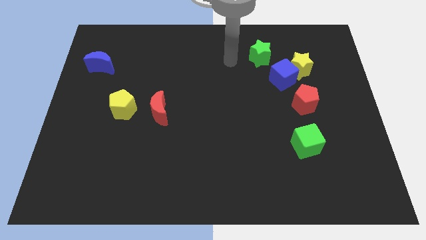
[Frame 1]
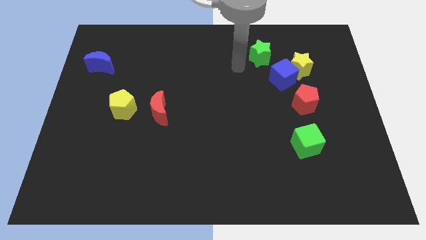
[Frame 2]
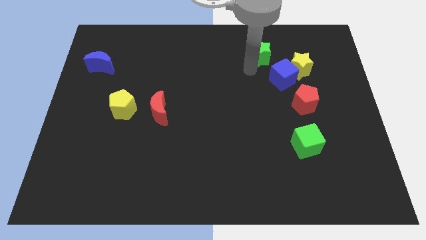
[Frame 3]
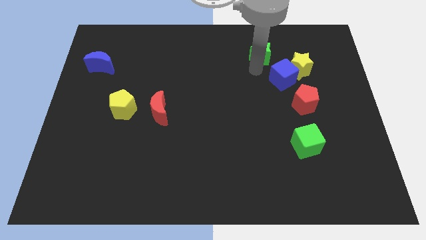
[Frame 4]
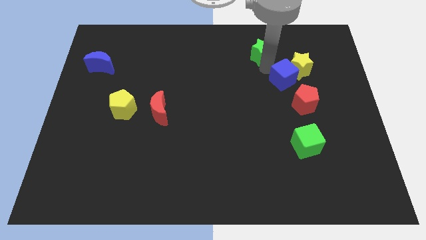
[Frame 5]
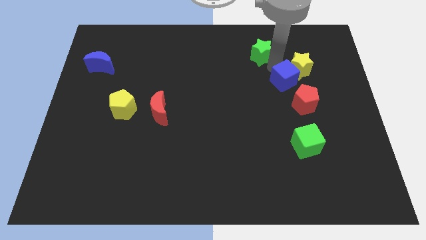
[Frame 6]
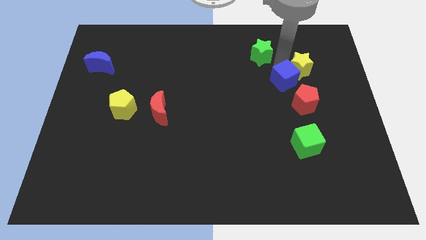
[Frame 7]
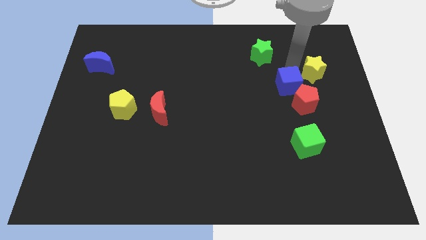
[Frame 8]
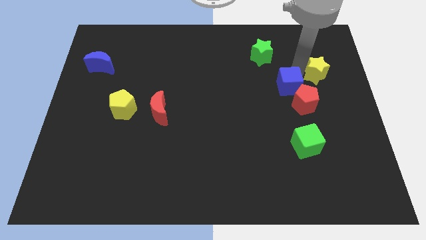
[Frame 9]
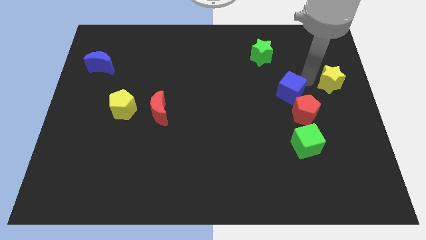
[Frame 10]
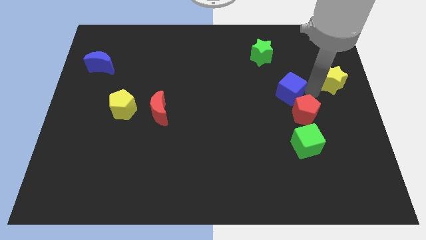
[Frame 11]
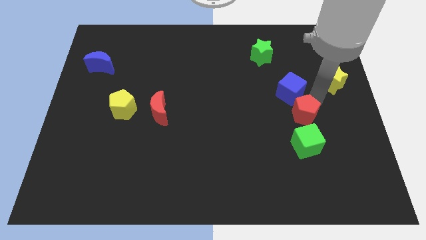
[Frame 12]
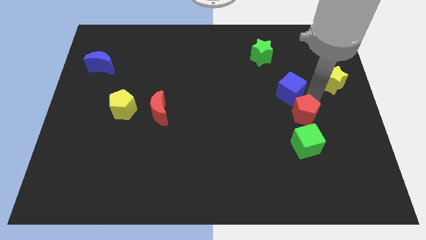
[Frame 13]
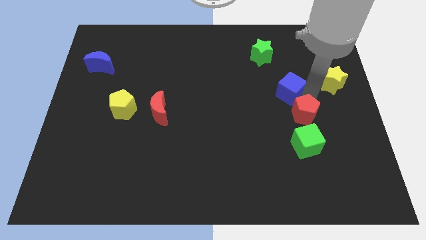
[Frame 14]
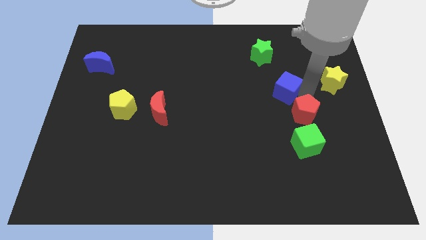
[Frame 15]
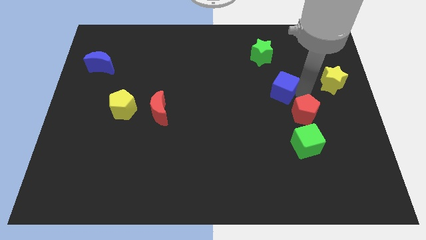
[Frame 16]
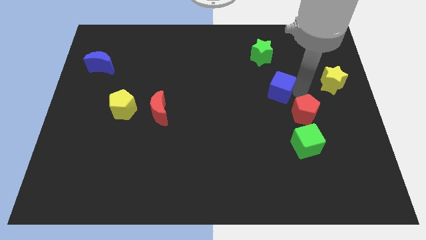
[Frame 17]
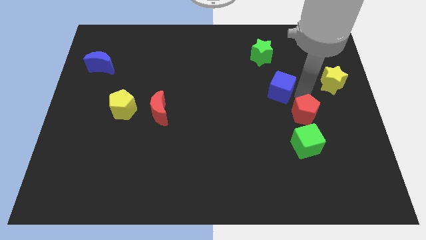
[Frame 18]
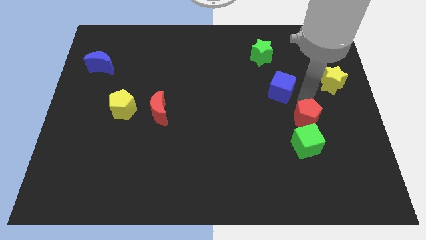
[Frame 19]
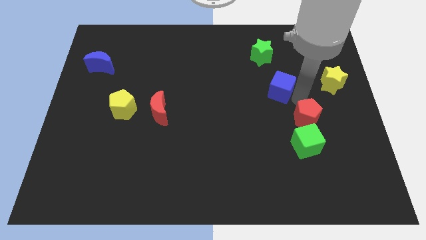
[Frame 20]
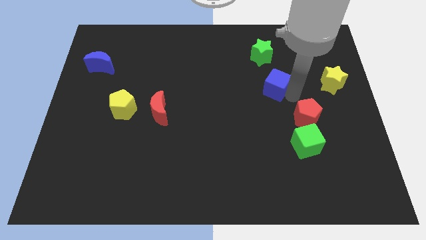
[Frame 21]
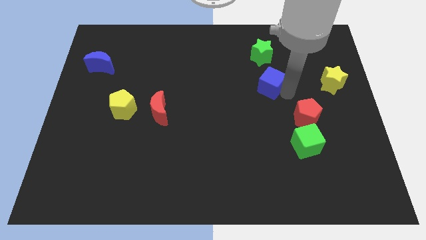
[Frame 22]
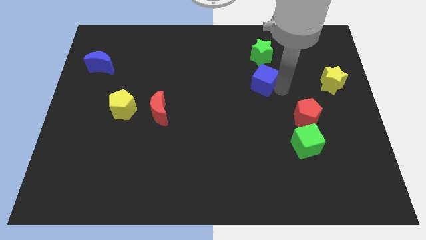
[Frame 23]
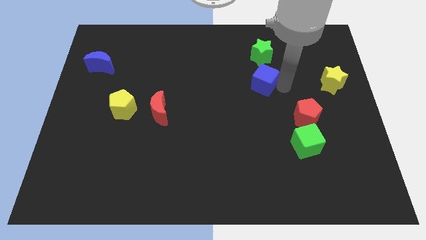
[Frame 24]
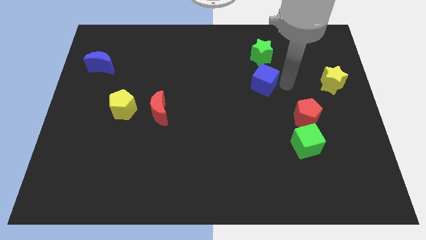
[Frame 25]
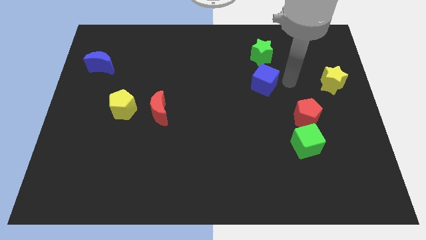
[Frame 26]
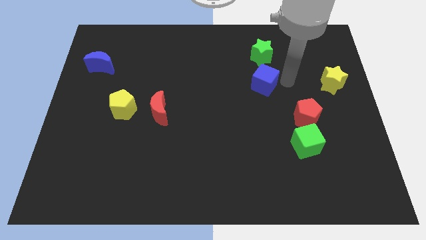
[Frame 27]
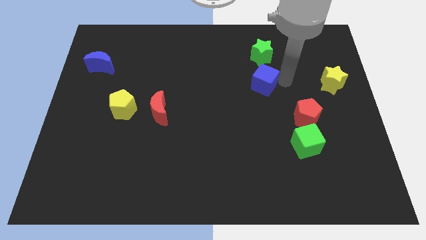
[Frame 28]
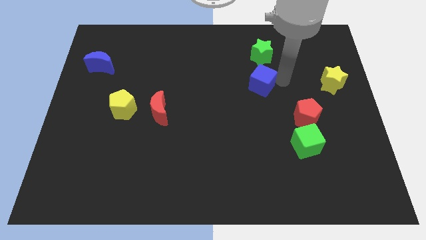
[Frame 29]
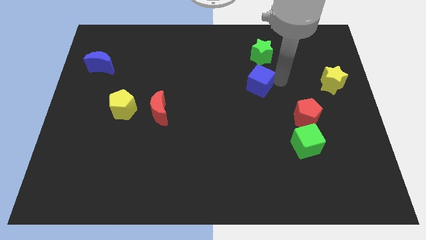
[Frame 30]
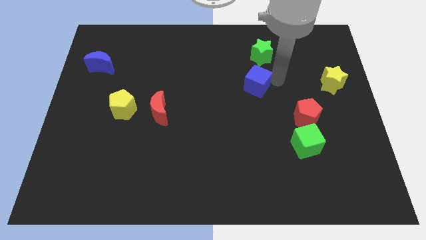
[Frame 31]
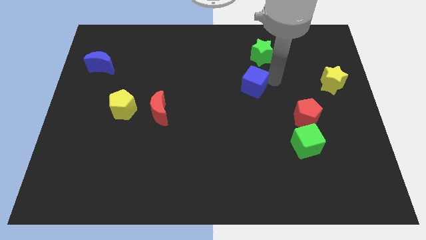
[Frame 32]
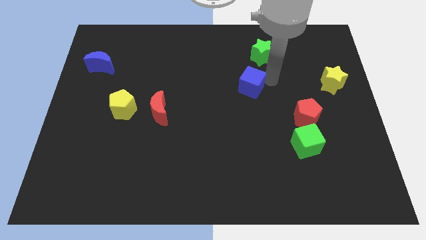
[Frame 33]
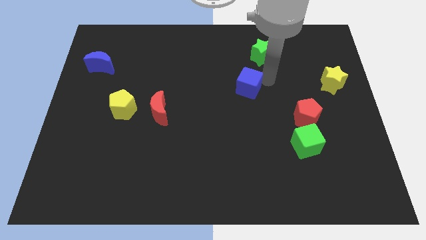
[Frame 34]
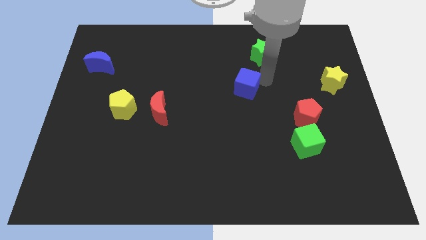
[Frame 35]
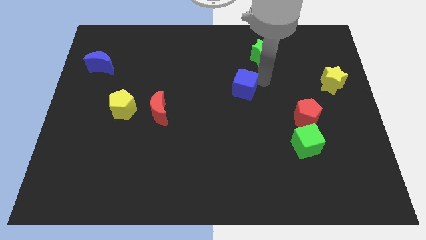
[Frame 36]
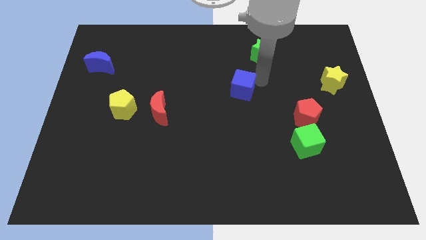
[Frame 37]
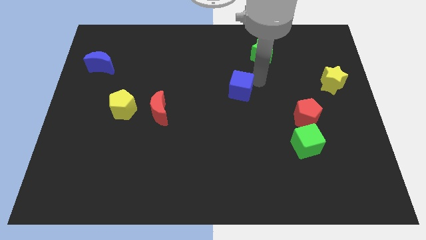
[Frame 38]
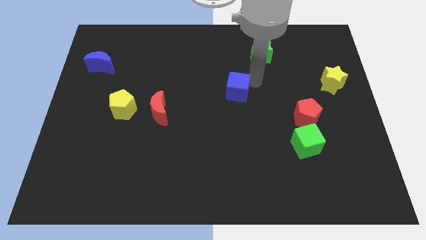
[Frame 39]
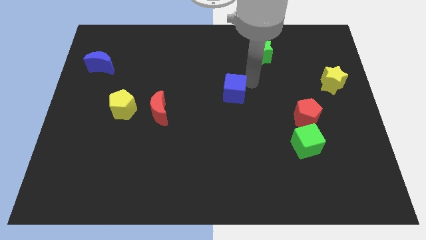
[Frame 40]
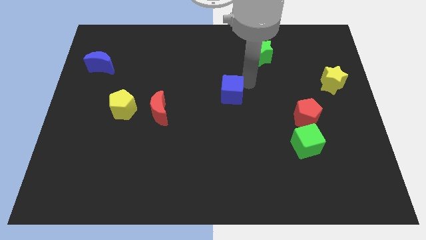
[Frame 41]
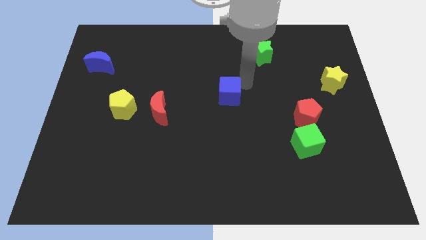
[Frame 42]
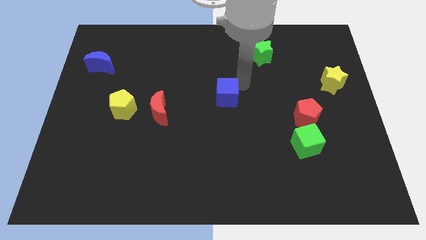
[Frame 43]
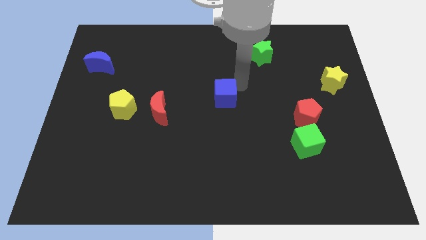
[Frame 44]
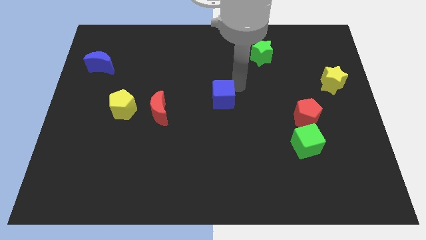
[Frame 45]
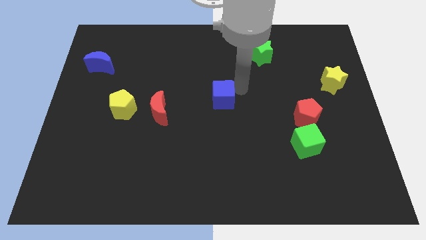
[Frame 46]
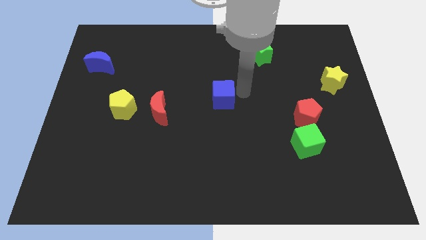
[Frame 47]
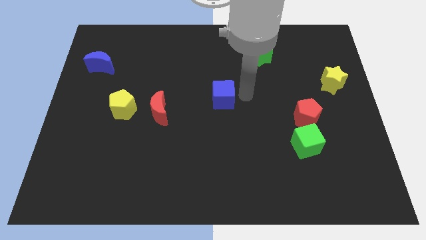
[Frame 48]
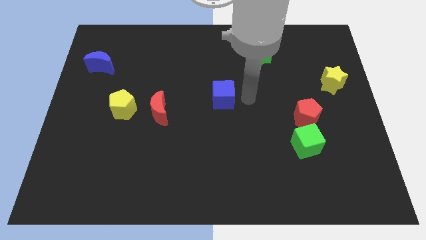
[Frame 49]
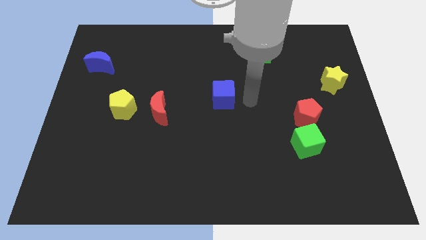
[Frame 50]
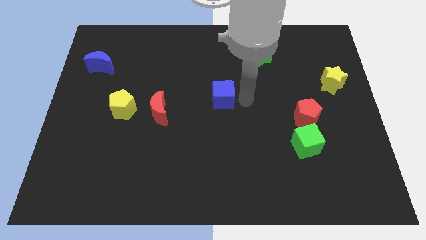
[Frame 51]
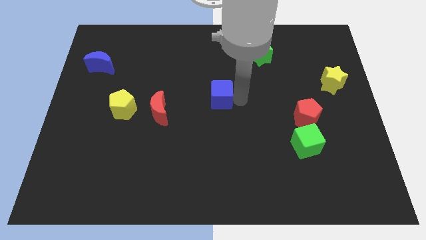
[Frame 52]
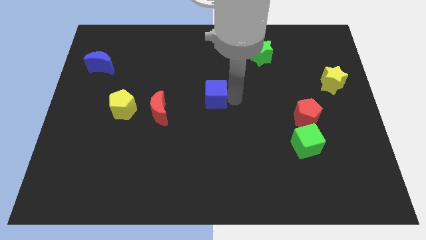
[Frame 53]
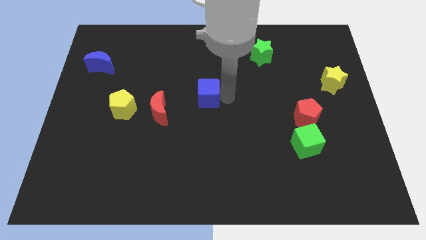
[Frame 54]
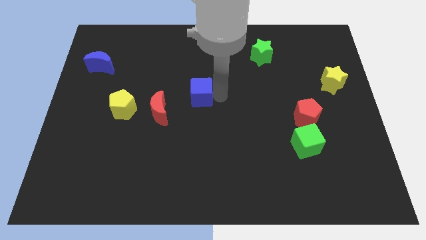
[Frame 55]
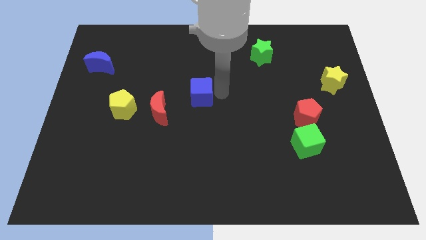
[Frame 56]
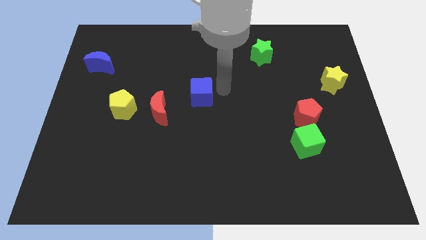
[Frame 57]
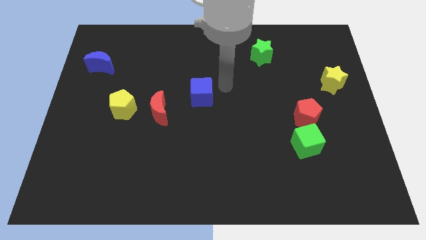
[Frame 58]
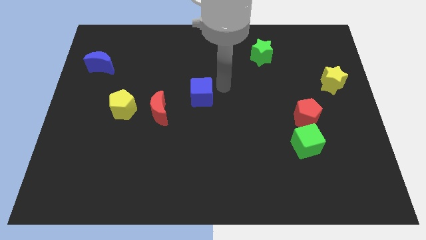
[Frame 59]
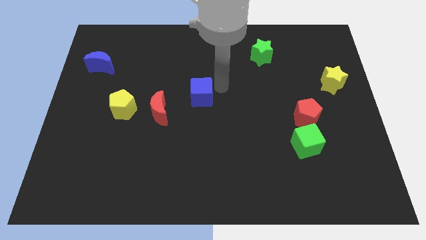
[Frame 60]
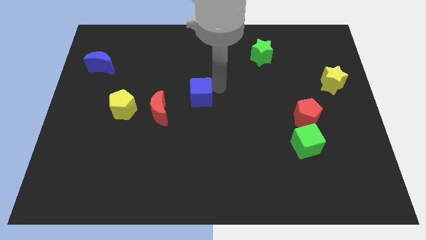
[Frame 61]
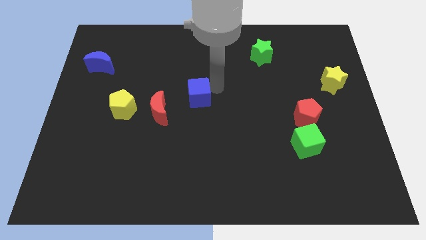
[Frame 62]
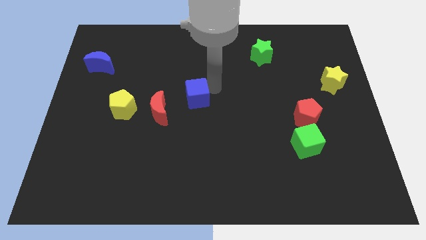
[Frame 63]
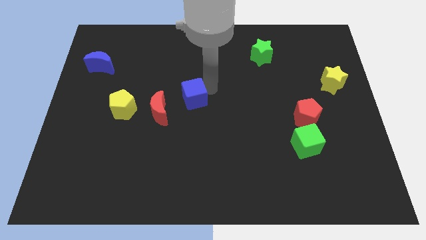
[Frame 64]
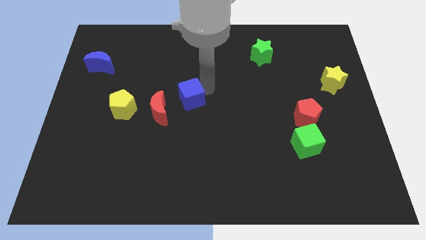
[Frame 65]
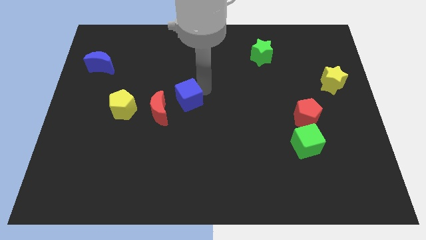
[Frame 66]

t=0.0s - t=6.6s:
push the blue cube to the right side of the yellow pentagon

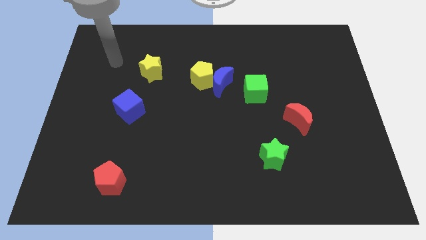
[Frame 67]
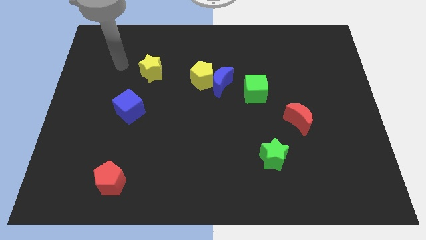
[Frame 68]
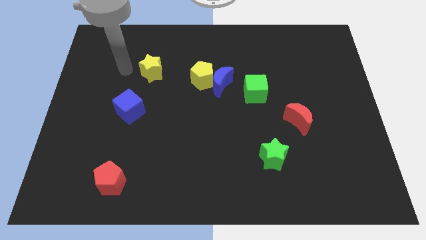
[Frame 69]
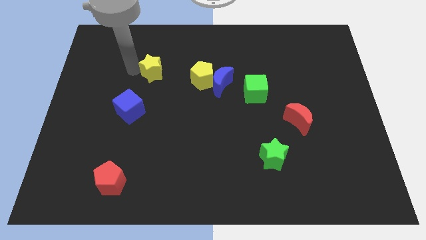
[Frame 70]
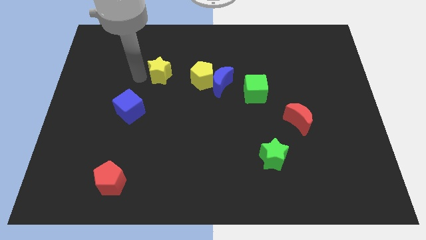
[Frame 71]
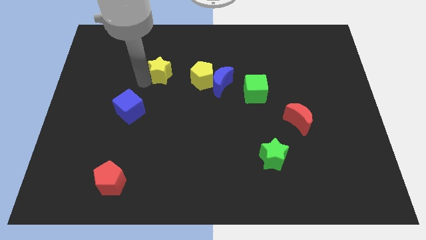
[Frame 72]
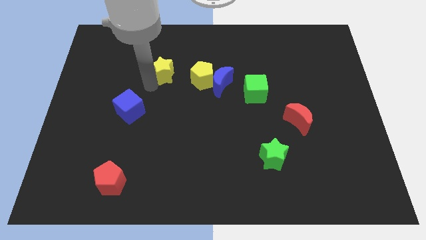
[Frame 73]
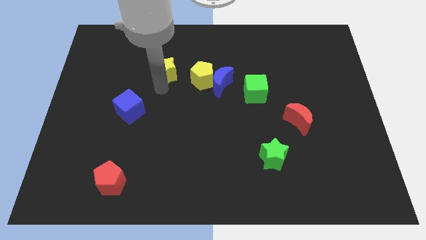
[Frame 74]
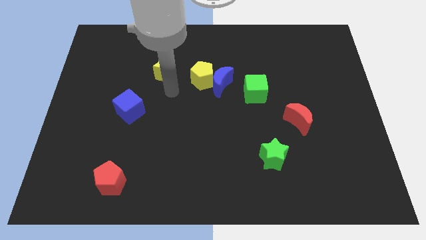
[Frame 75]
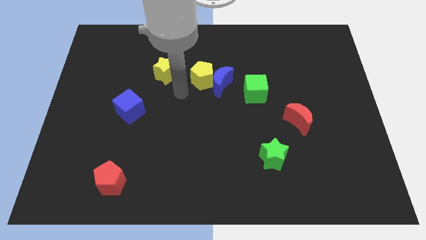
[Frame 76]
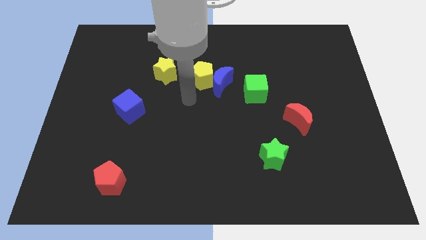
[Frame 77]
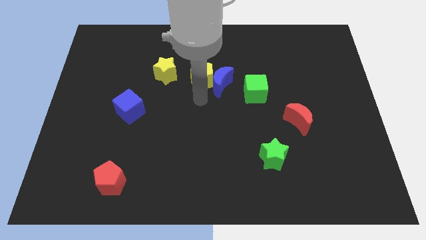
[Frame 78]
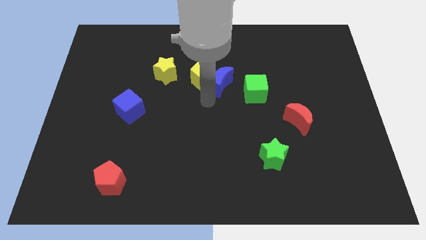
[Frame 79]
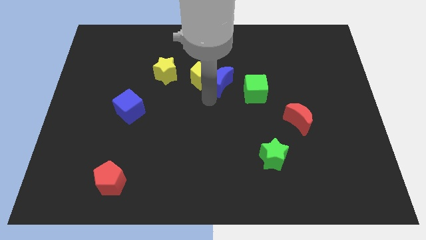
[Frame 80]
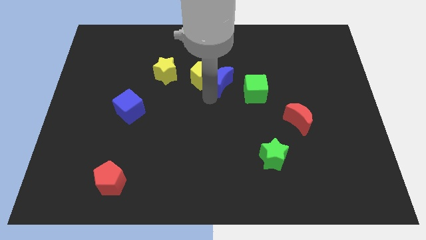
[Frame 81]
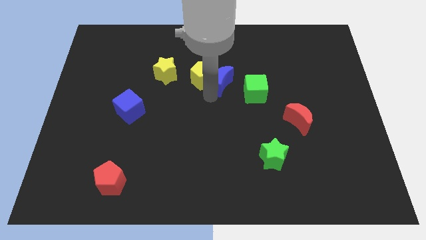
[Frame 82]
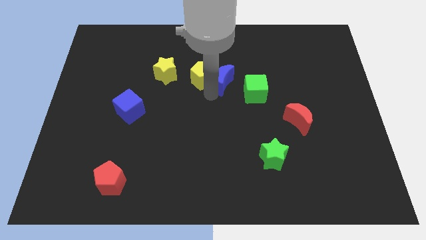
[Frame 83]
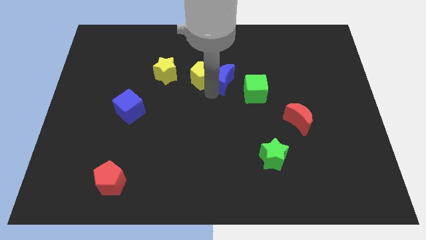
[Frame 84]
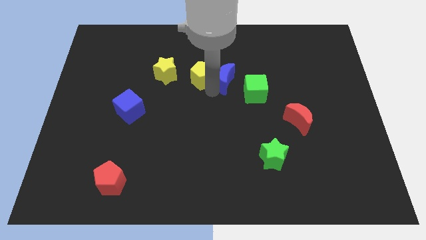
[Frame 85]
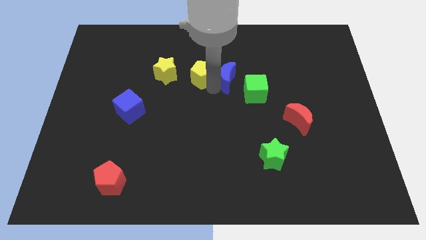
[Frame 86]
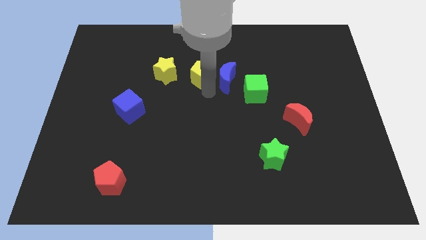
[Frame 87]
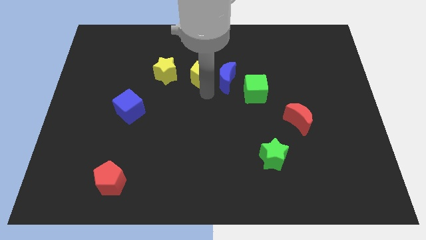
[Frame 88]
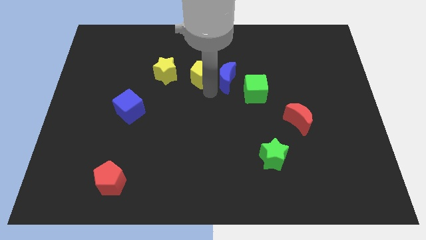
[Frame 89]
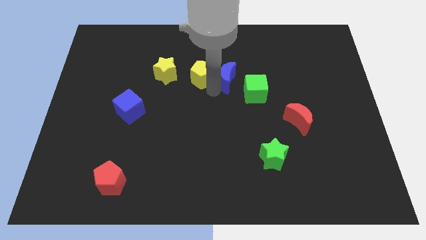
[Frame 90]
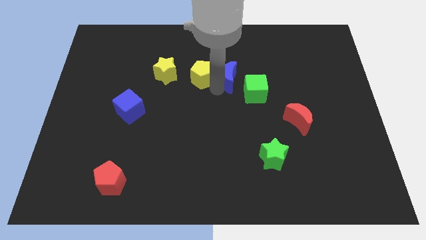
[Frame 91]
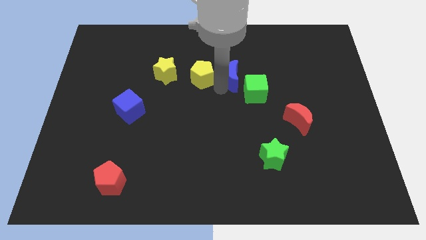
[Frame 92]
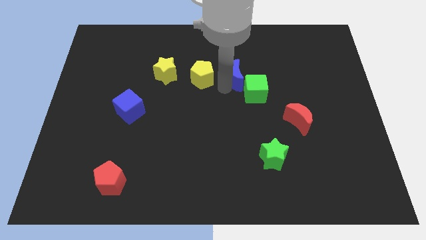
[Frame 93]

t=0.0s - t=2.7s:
slide the blue moon to the top side of the green cube
